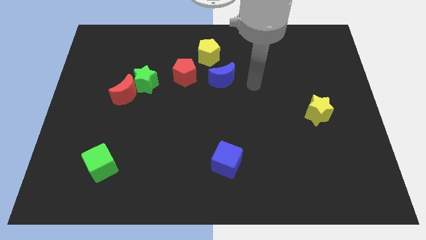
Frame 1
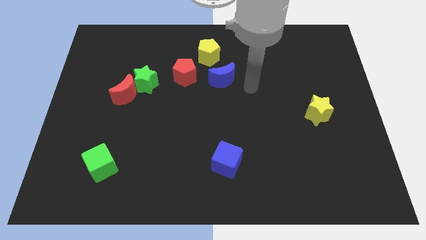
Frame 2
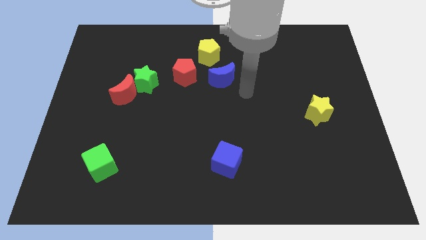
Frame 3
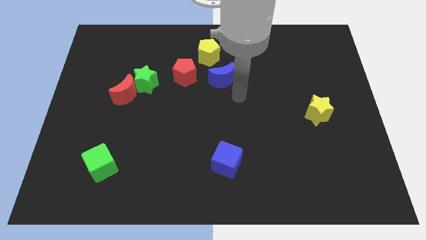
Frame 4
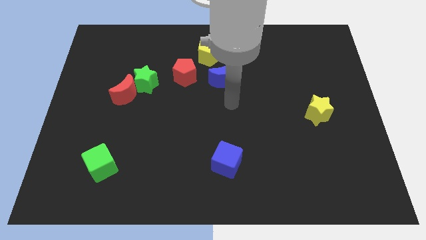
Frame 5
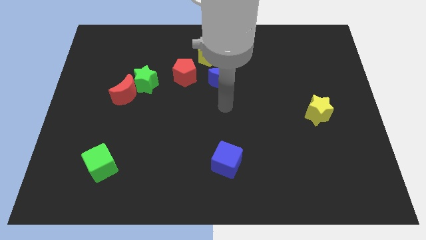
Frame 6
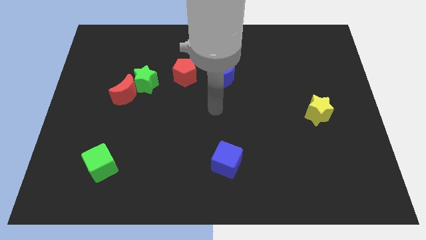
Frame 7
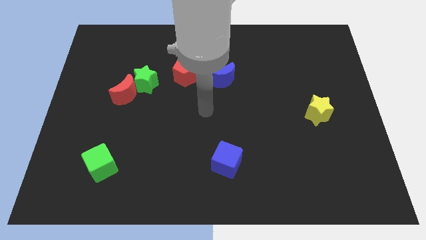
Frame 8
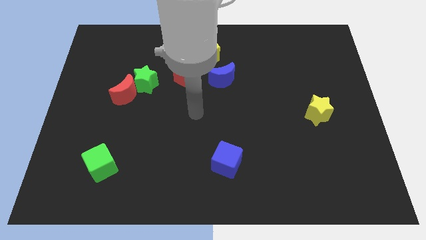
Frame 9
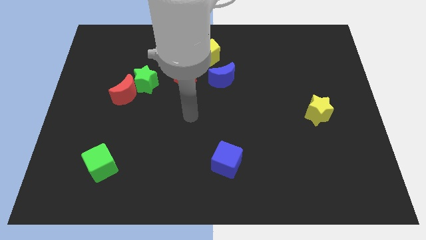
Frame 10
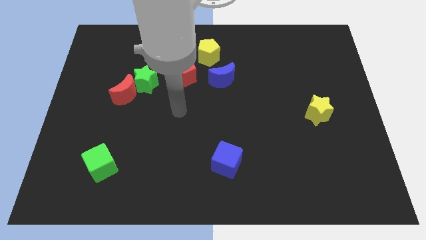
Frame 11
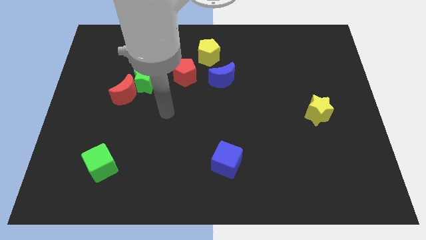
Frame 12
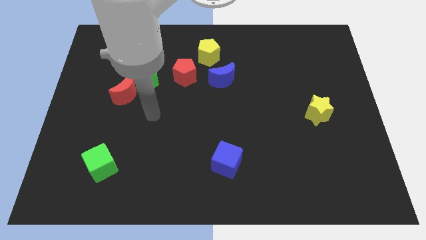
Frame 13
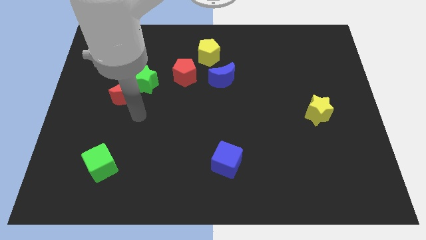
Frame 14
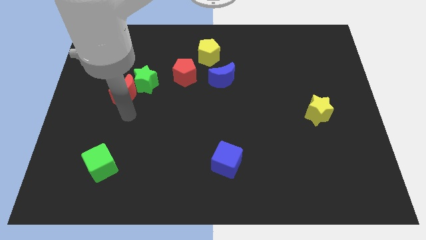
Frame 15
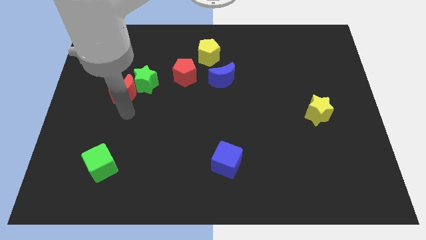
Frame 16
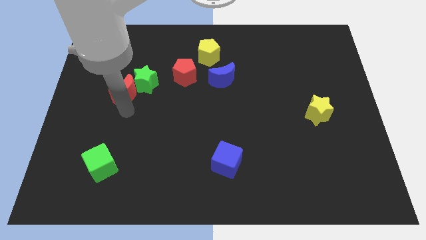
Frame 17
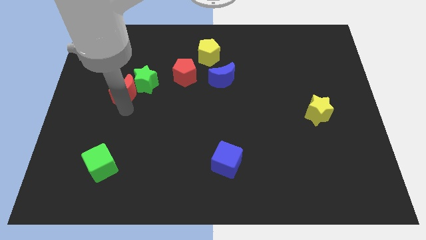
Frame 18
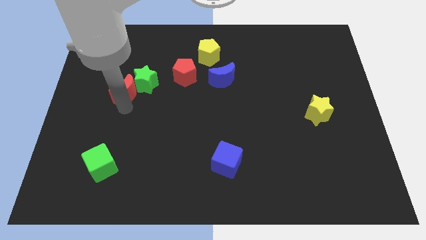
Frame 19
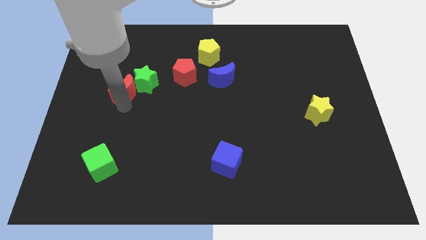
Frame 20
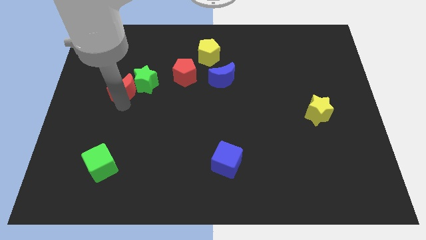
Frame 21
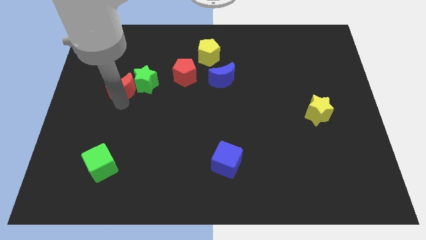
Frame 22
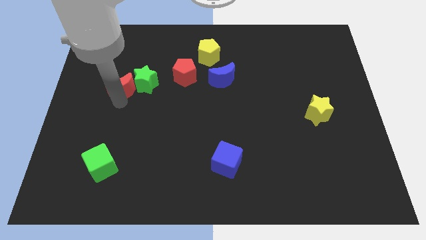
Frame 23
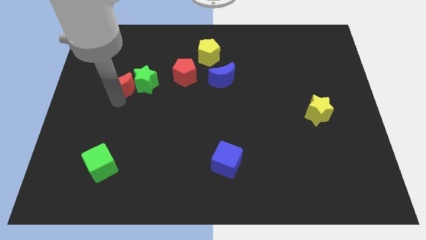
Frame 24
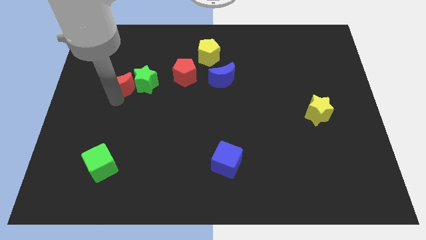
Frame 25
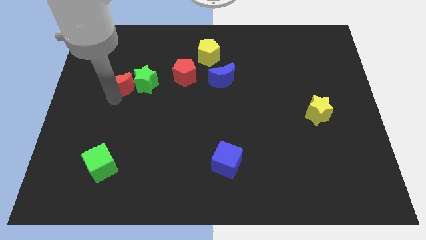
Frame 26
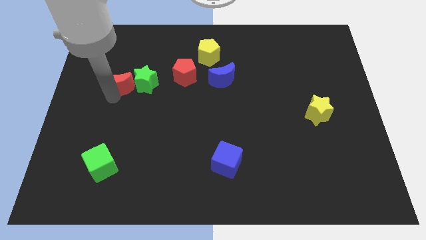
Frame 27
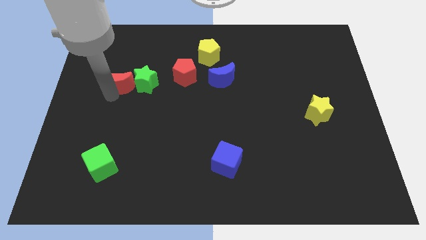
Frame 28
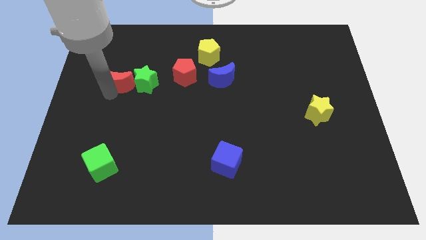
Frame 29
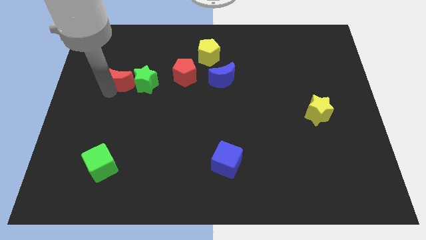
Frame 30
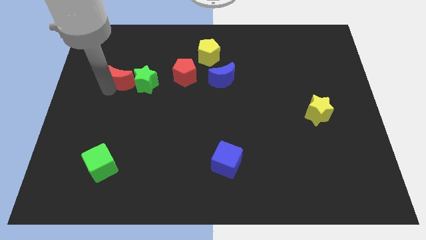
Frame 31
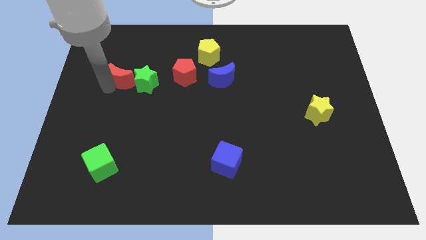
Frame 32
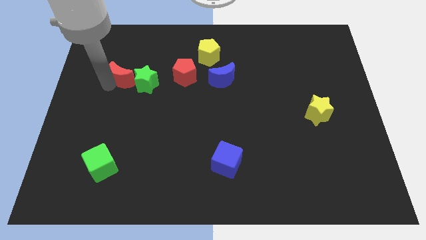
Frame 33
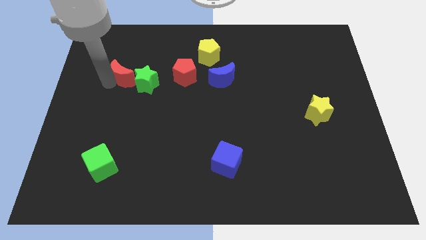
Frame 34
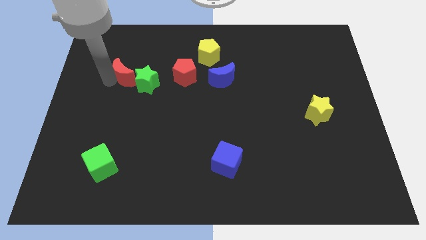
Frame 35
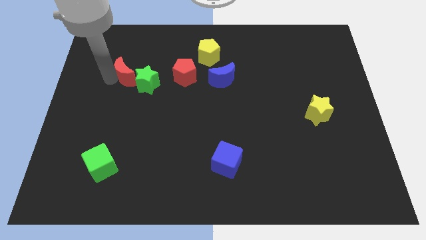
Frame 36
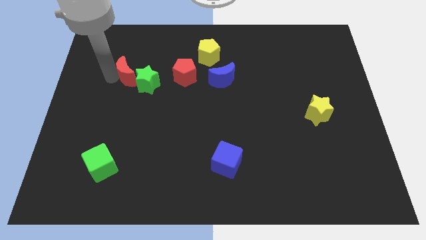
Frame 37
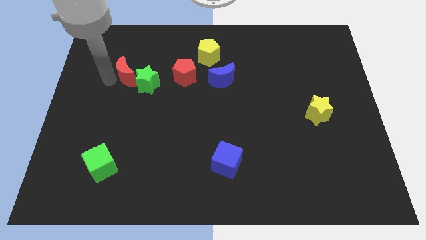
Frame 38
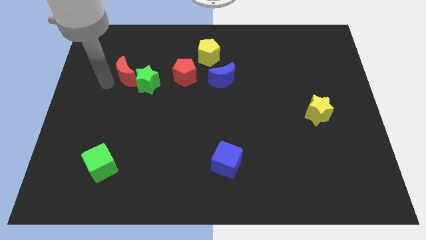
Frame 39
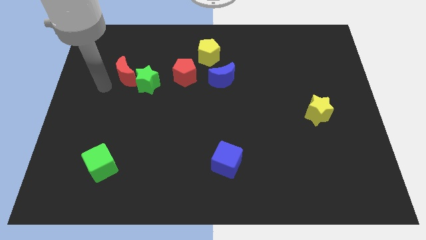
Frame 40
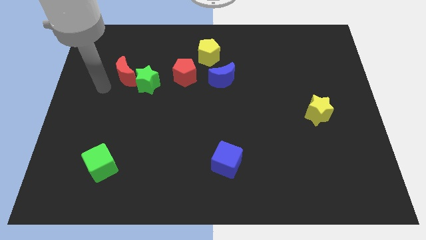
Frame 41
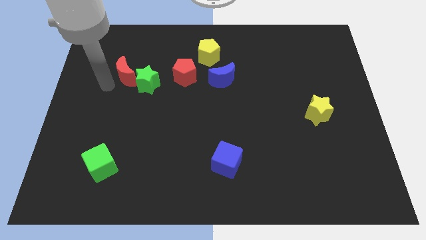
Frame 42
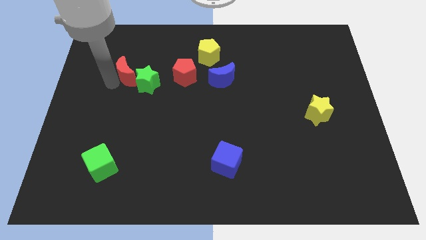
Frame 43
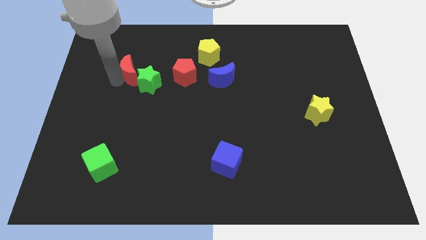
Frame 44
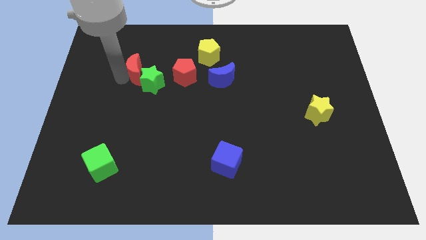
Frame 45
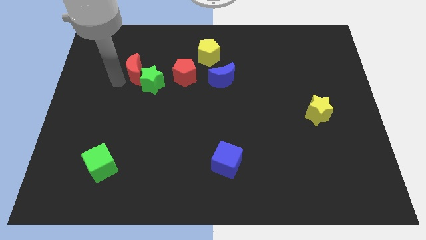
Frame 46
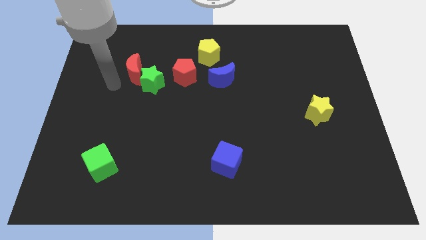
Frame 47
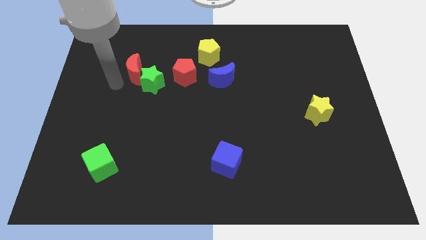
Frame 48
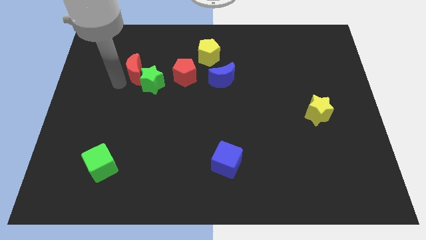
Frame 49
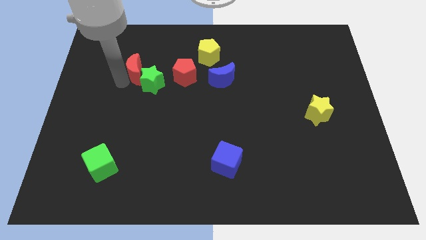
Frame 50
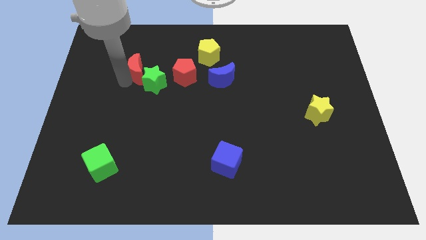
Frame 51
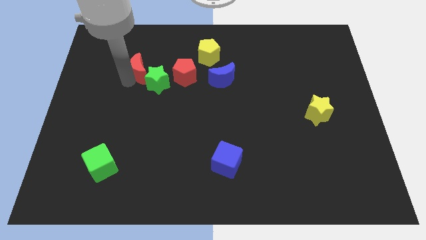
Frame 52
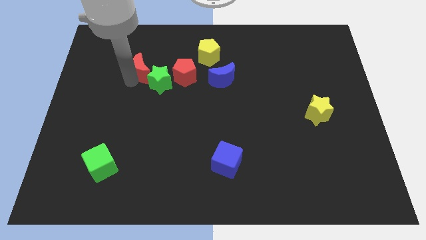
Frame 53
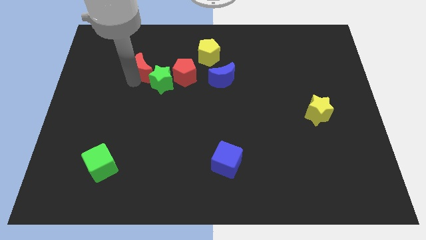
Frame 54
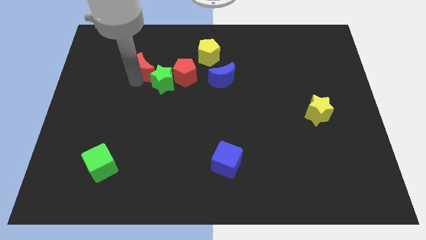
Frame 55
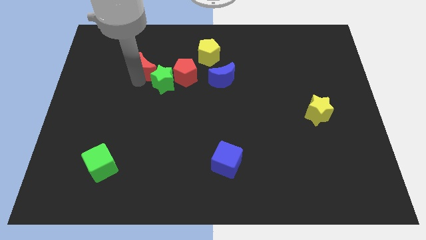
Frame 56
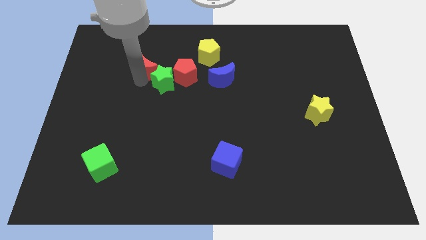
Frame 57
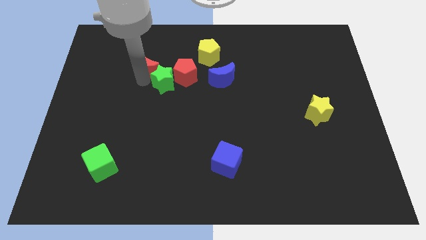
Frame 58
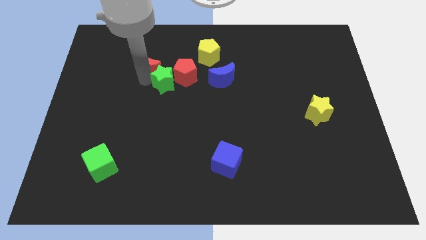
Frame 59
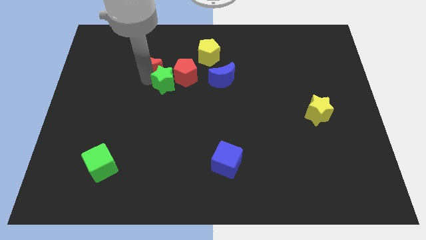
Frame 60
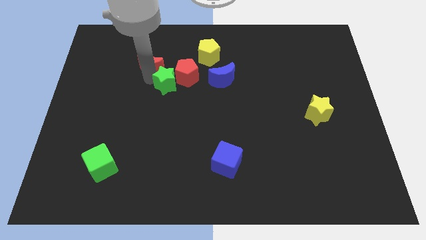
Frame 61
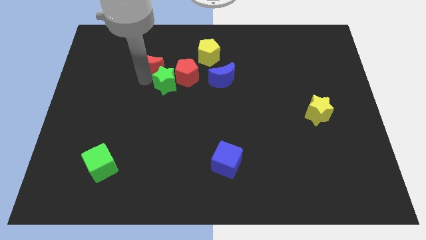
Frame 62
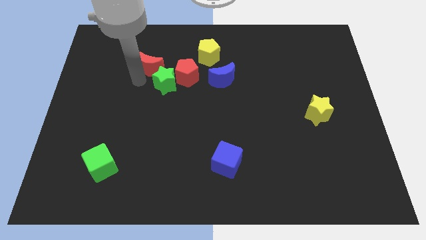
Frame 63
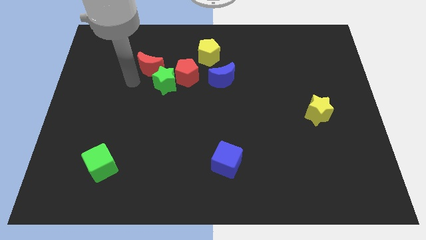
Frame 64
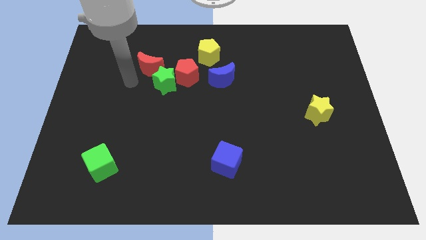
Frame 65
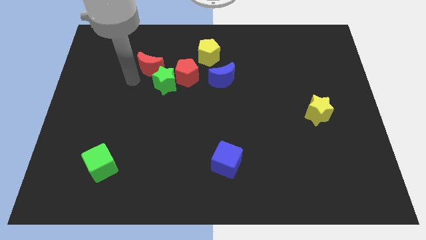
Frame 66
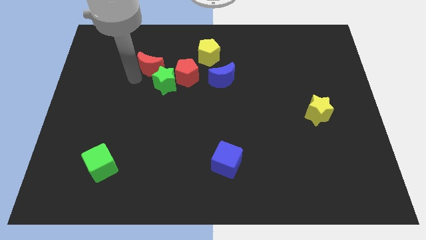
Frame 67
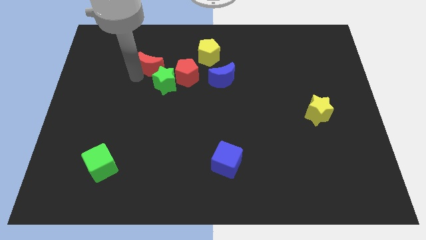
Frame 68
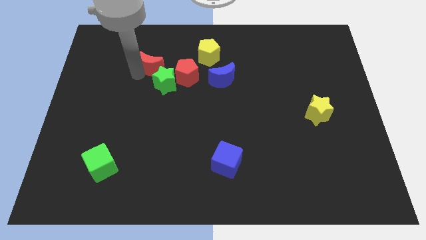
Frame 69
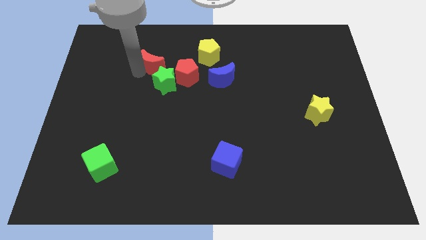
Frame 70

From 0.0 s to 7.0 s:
put the red moon just left of the yellow pentagon
